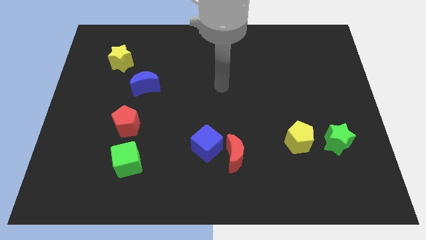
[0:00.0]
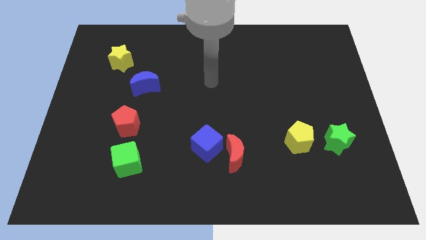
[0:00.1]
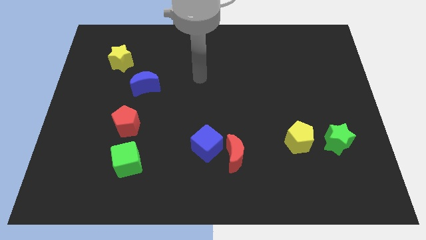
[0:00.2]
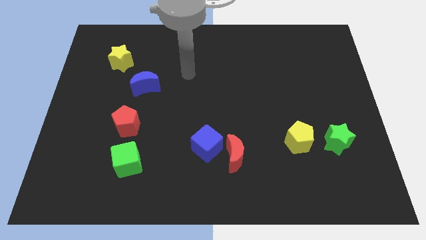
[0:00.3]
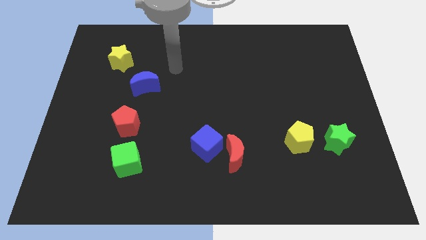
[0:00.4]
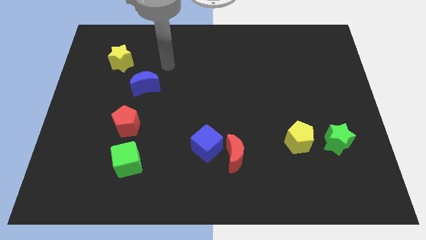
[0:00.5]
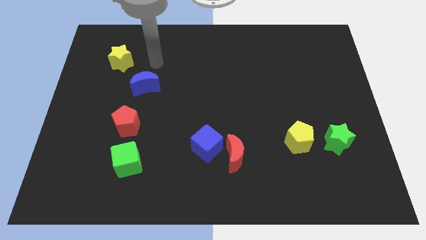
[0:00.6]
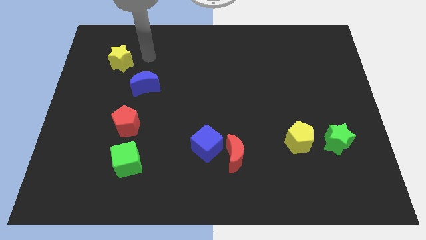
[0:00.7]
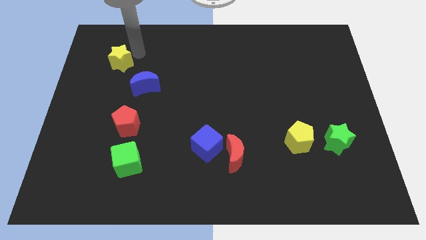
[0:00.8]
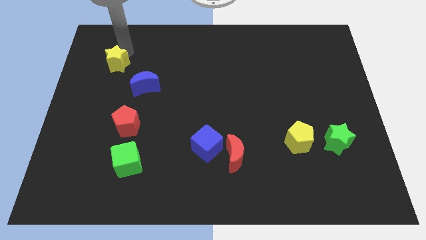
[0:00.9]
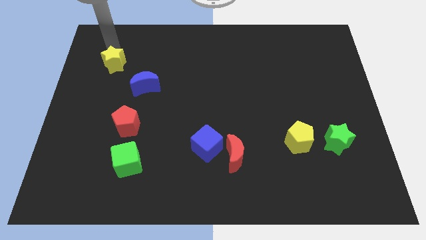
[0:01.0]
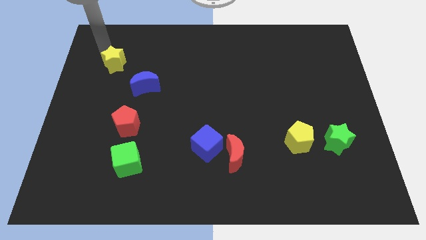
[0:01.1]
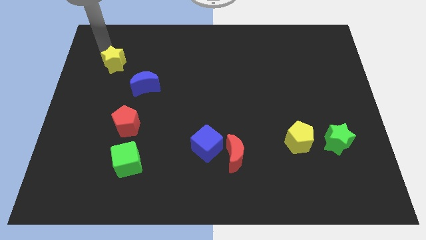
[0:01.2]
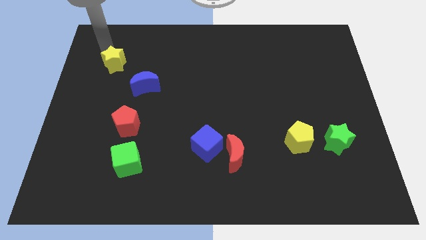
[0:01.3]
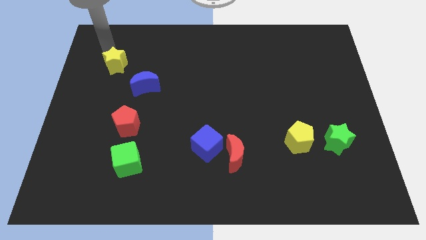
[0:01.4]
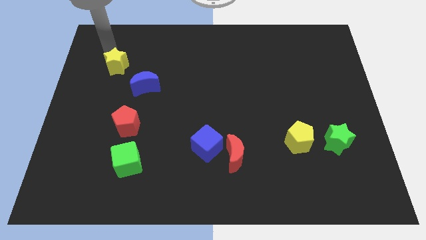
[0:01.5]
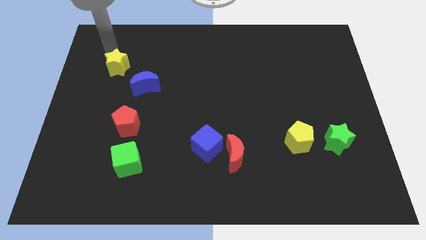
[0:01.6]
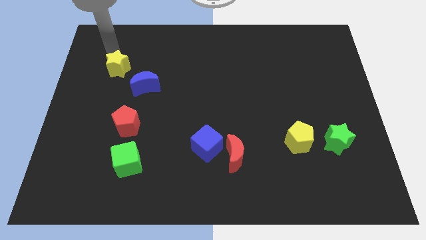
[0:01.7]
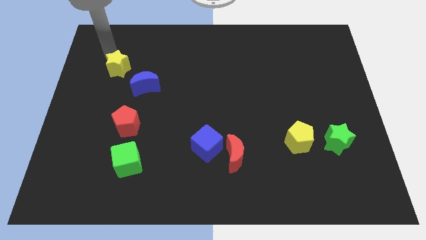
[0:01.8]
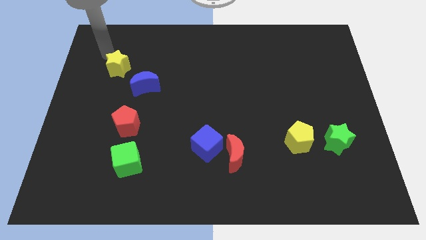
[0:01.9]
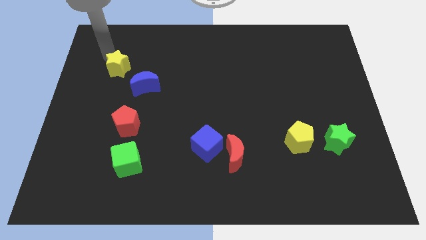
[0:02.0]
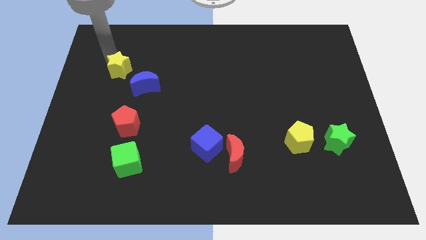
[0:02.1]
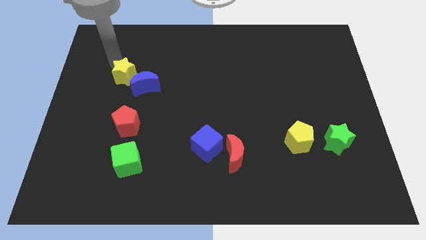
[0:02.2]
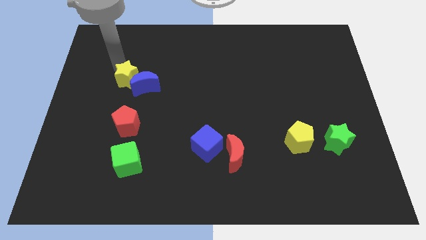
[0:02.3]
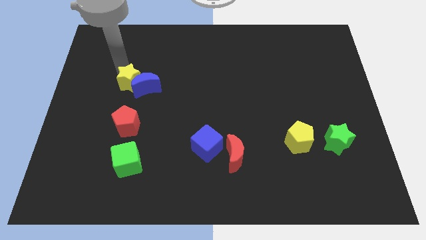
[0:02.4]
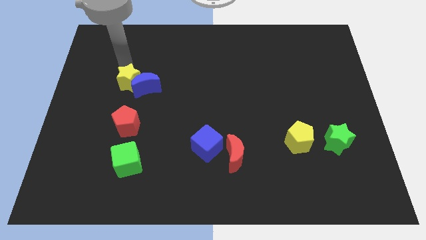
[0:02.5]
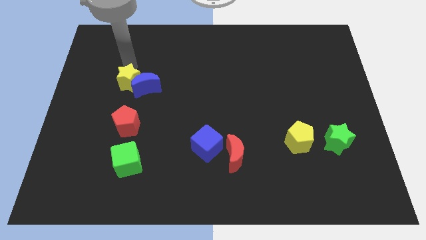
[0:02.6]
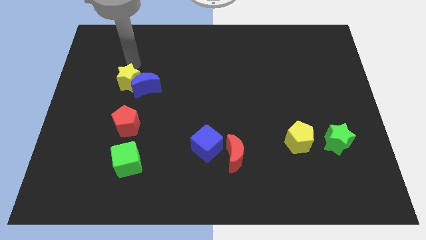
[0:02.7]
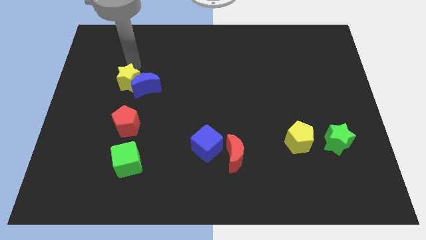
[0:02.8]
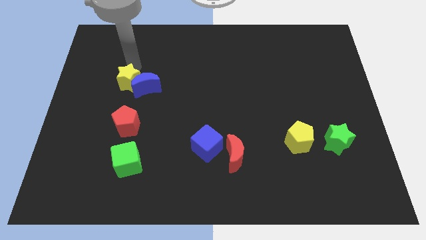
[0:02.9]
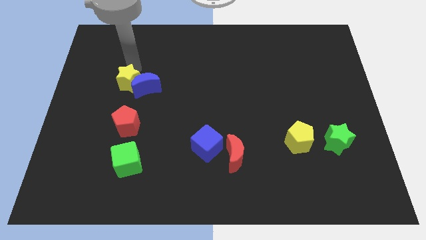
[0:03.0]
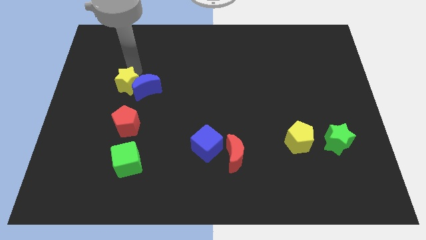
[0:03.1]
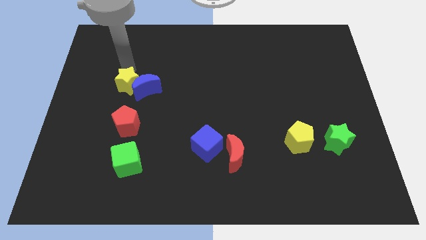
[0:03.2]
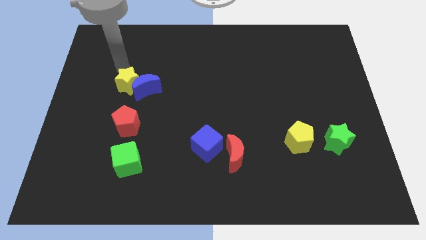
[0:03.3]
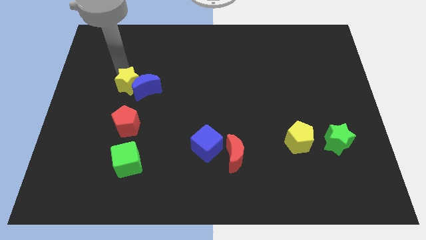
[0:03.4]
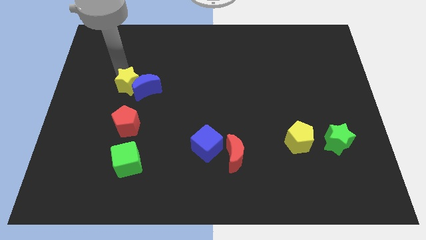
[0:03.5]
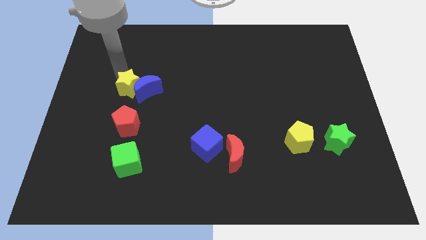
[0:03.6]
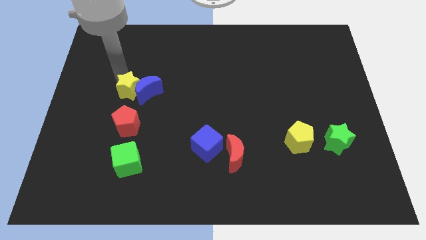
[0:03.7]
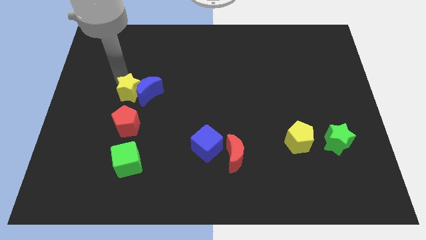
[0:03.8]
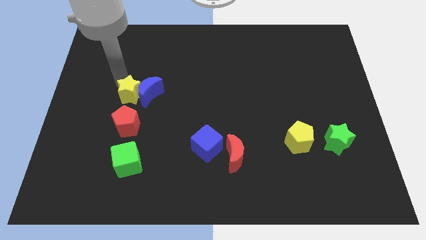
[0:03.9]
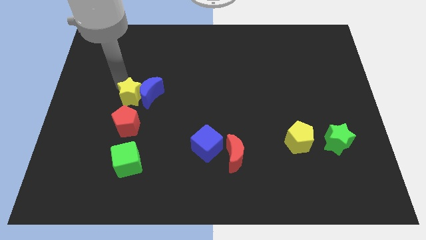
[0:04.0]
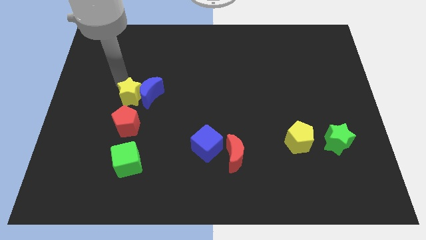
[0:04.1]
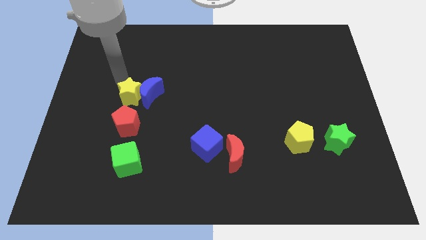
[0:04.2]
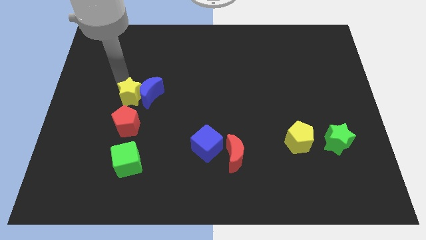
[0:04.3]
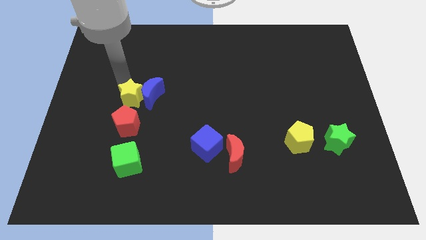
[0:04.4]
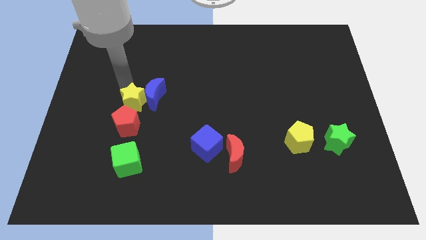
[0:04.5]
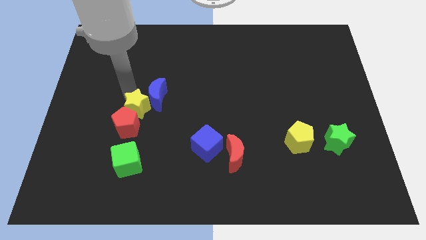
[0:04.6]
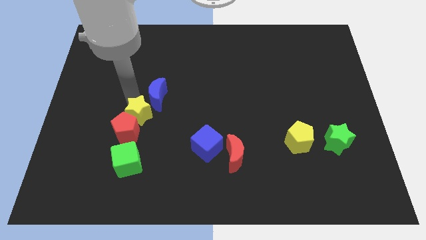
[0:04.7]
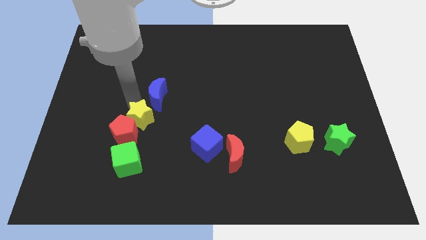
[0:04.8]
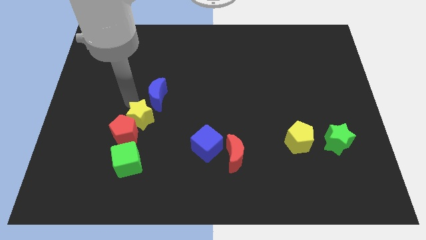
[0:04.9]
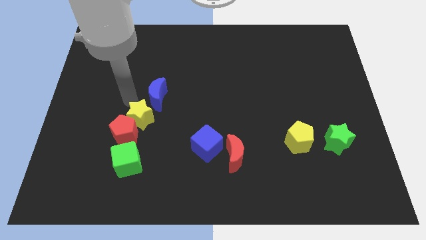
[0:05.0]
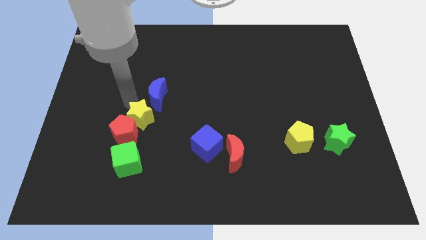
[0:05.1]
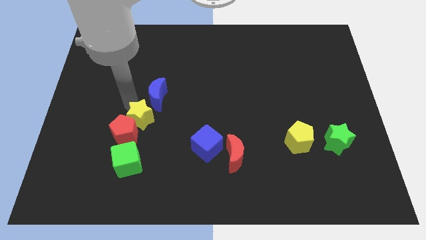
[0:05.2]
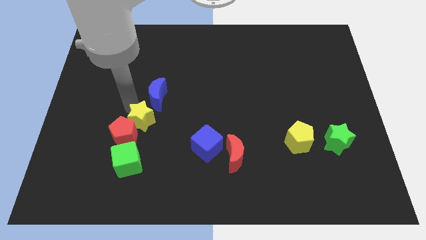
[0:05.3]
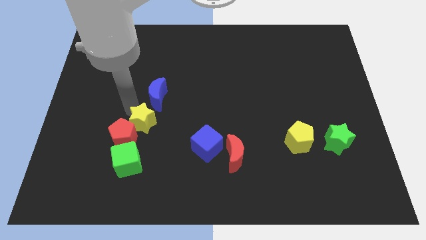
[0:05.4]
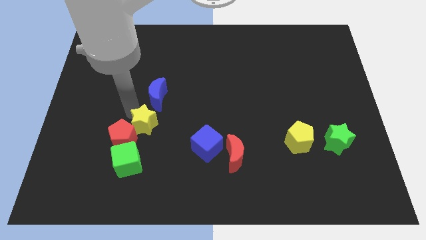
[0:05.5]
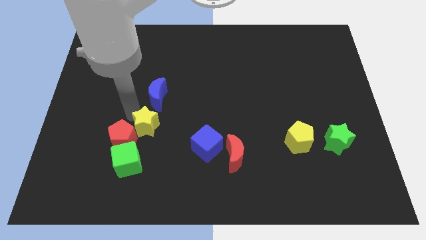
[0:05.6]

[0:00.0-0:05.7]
put the yellow star to the top right side of the green cube

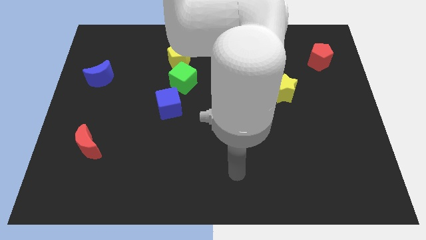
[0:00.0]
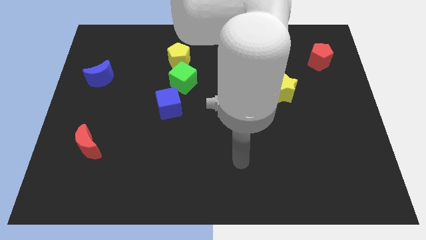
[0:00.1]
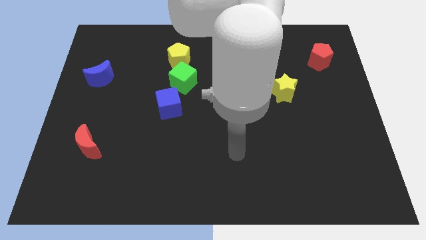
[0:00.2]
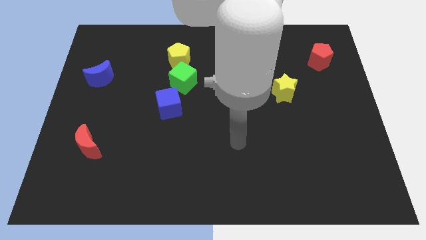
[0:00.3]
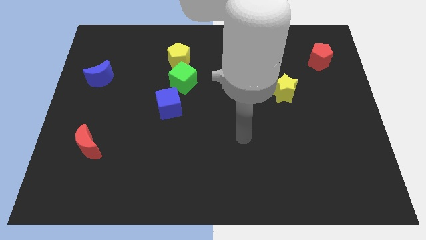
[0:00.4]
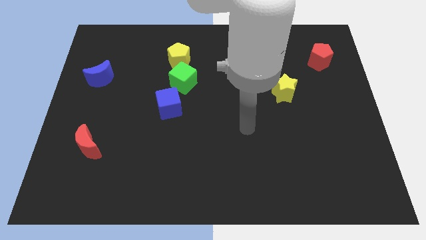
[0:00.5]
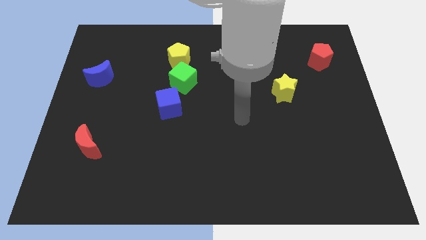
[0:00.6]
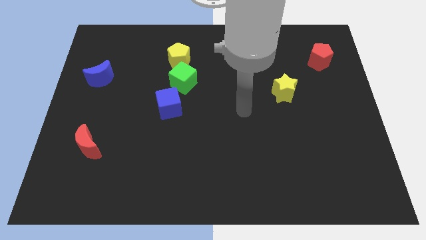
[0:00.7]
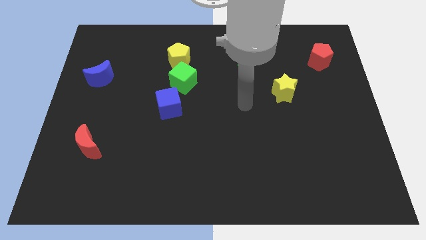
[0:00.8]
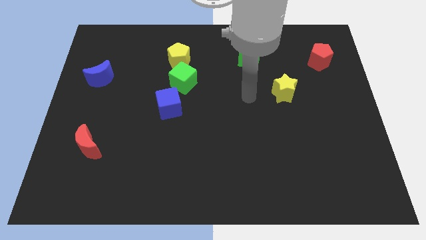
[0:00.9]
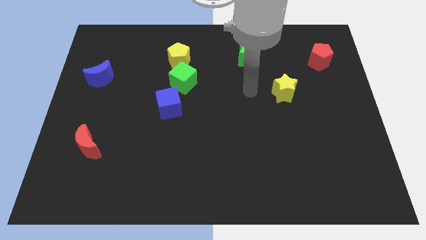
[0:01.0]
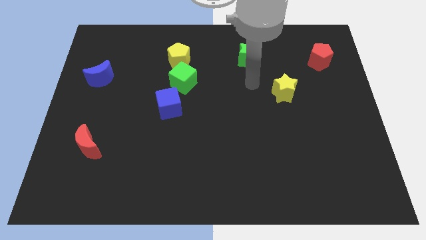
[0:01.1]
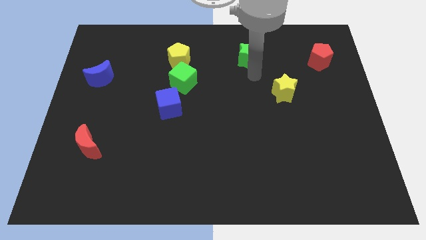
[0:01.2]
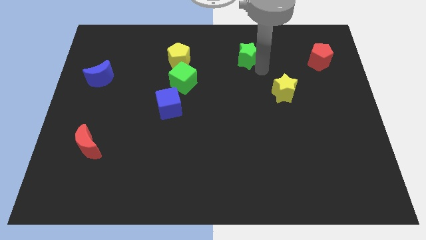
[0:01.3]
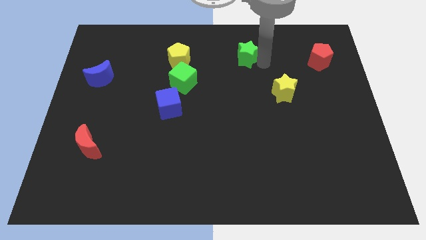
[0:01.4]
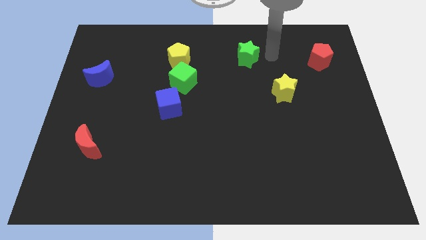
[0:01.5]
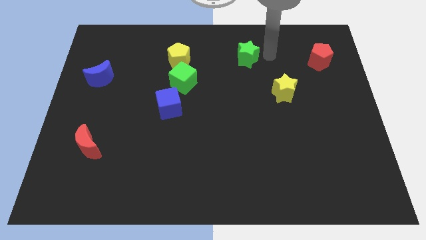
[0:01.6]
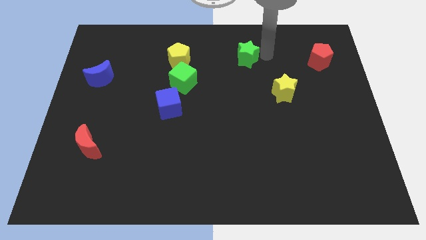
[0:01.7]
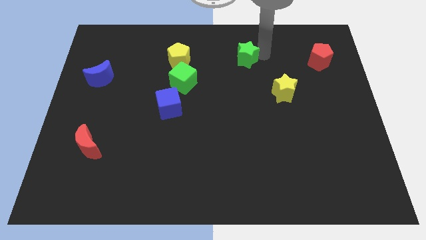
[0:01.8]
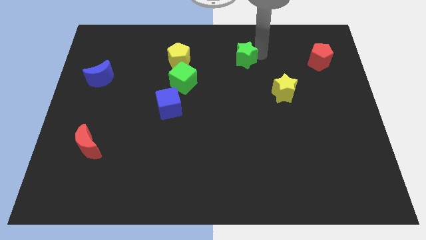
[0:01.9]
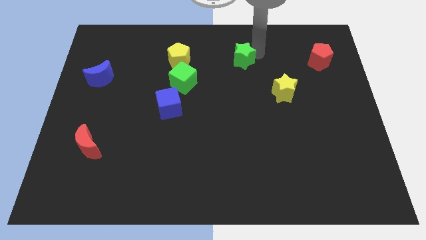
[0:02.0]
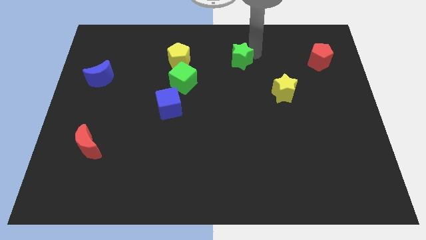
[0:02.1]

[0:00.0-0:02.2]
slide the green star right of the yellow pentagon
